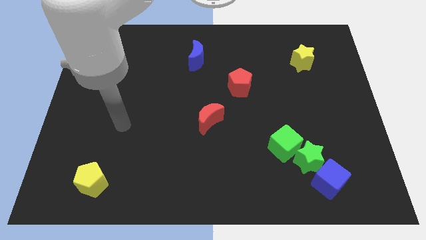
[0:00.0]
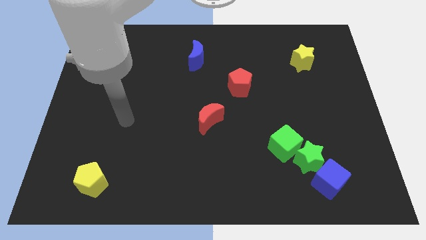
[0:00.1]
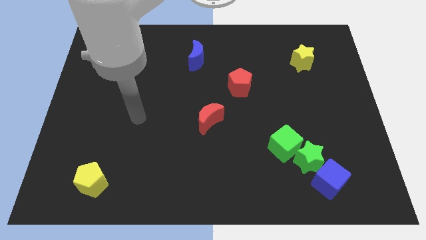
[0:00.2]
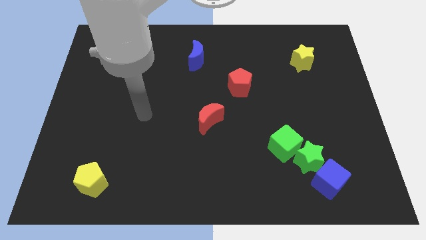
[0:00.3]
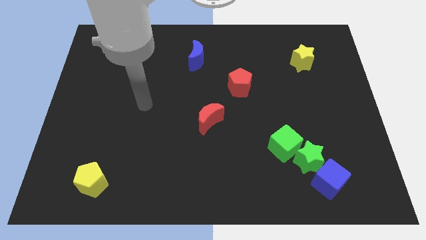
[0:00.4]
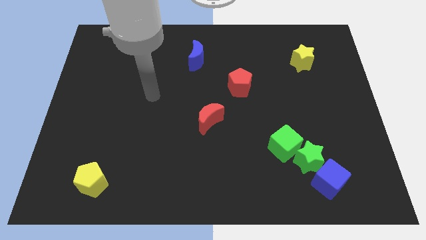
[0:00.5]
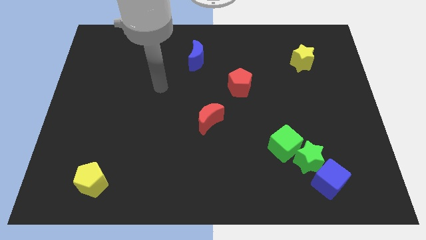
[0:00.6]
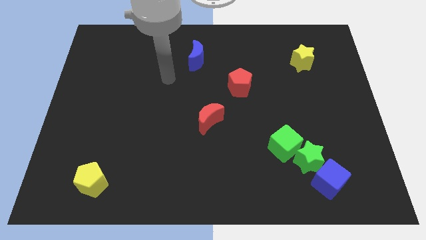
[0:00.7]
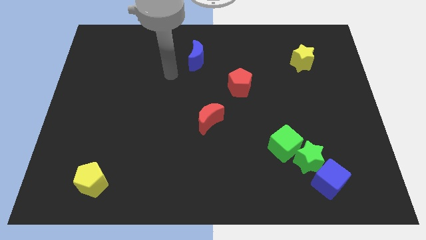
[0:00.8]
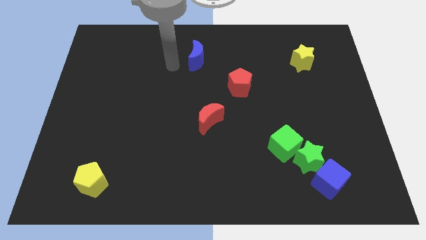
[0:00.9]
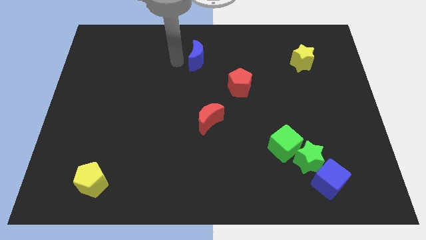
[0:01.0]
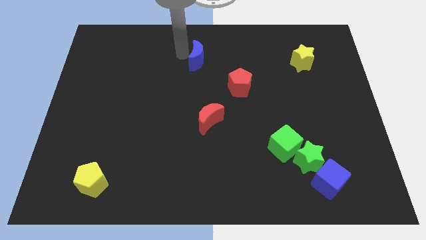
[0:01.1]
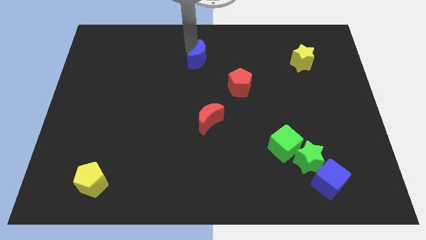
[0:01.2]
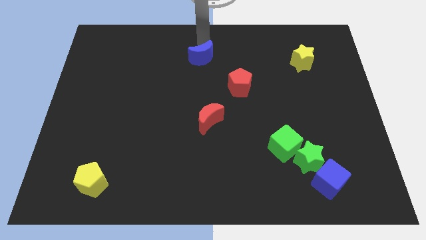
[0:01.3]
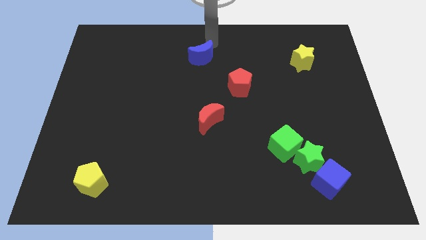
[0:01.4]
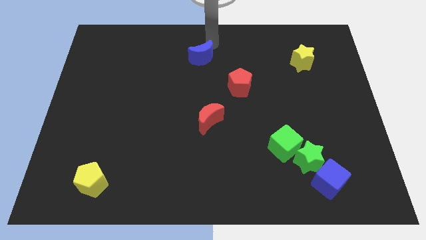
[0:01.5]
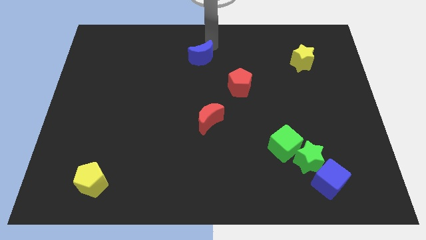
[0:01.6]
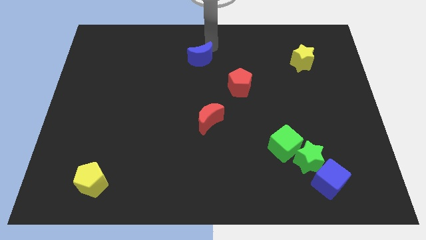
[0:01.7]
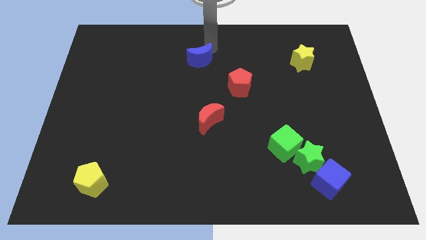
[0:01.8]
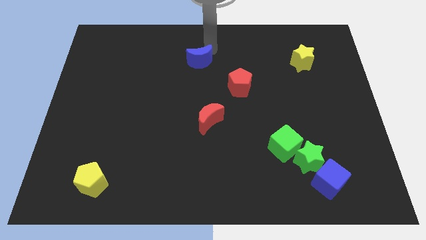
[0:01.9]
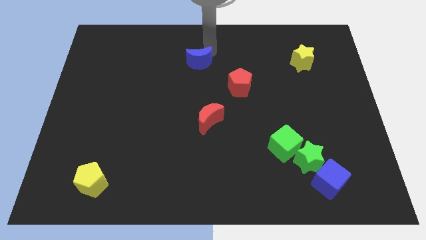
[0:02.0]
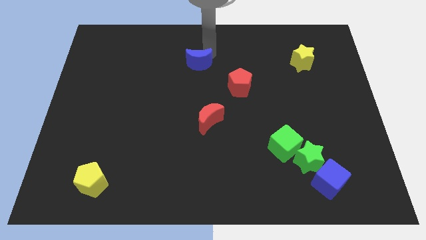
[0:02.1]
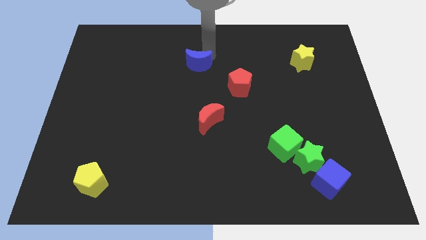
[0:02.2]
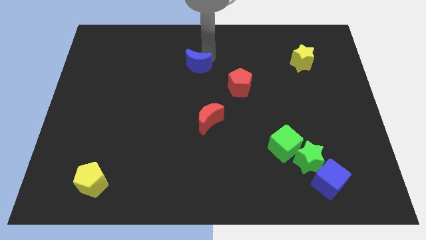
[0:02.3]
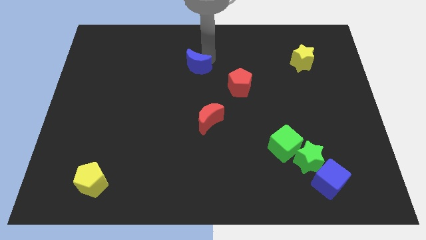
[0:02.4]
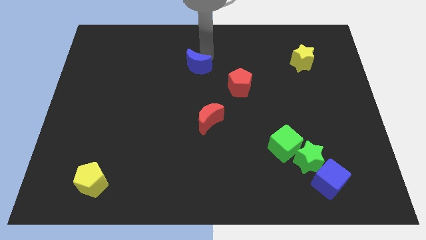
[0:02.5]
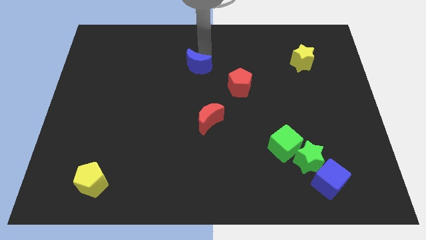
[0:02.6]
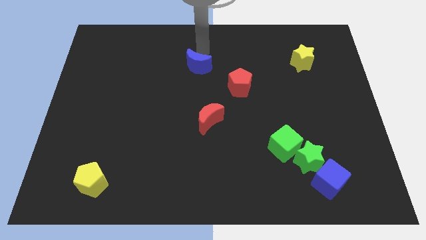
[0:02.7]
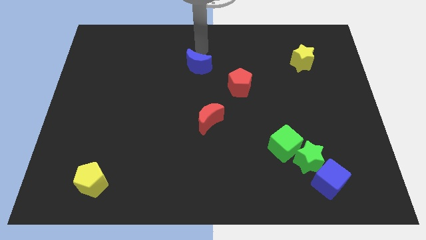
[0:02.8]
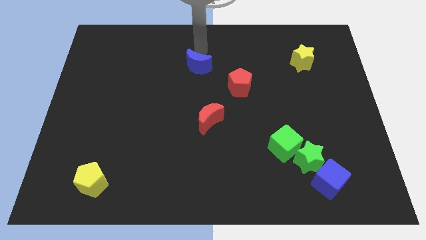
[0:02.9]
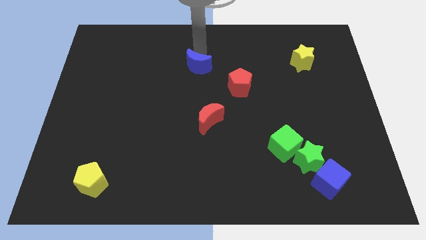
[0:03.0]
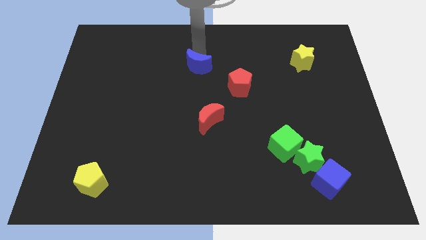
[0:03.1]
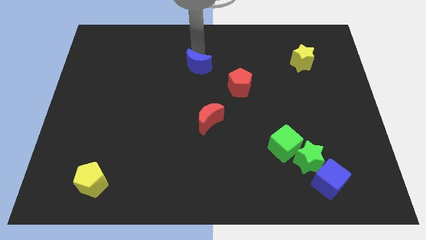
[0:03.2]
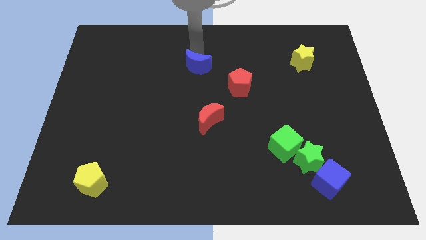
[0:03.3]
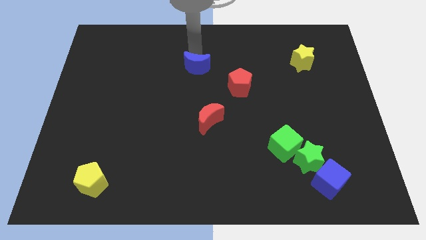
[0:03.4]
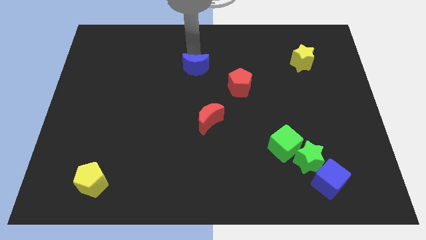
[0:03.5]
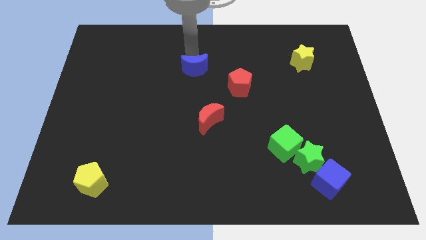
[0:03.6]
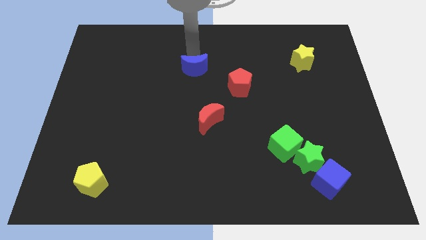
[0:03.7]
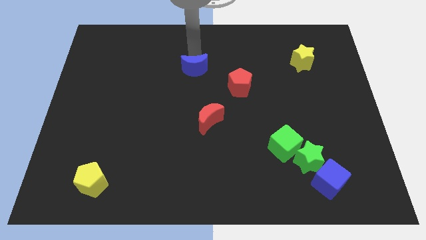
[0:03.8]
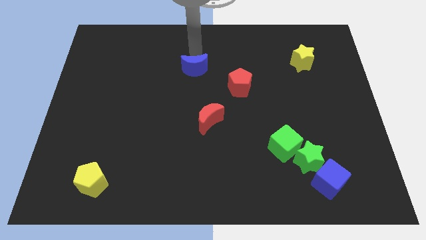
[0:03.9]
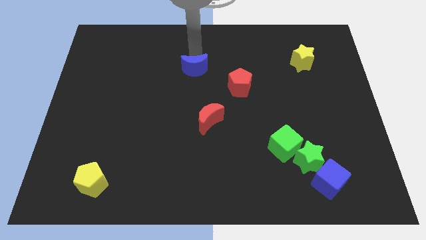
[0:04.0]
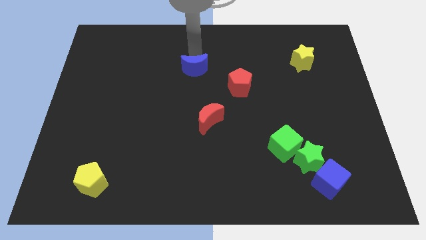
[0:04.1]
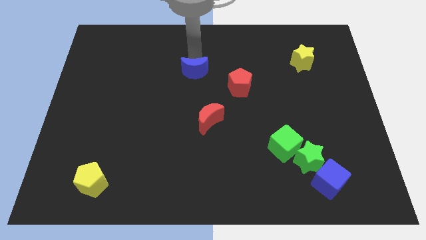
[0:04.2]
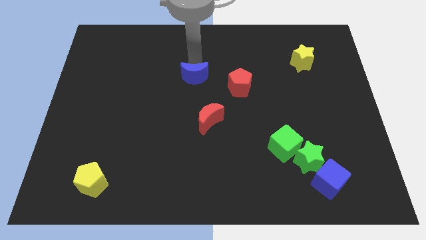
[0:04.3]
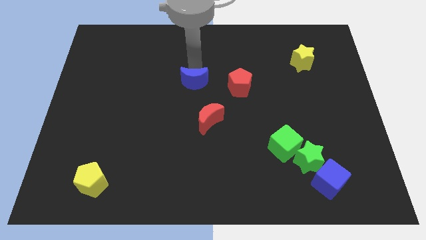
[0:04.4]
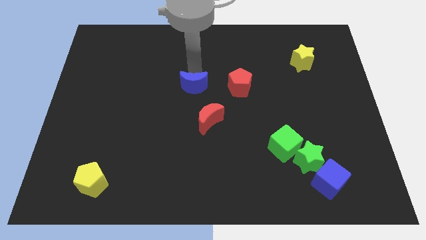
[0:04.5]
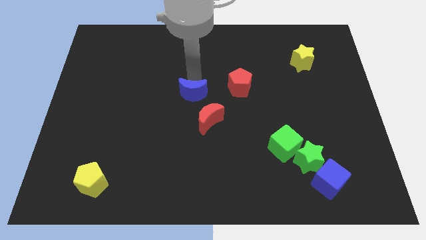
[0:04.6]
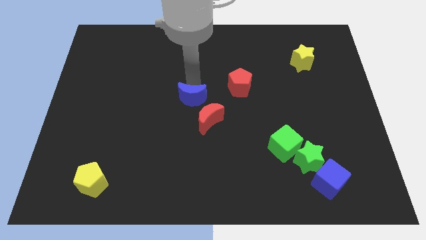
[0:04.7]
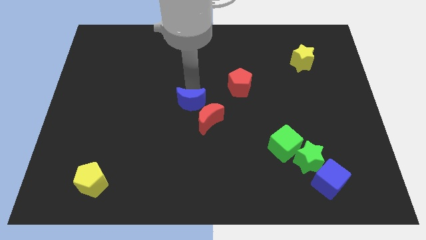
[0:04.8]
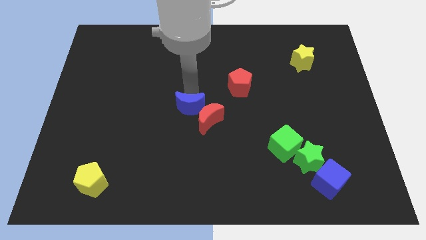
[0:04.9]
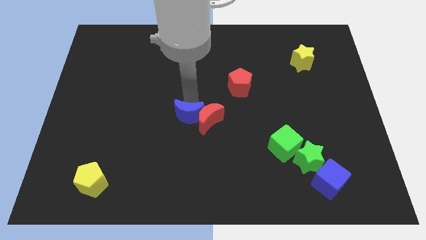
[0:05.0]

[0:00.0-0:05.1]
put the blue moon to the bottom left side of the red moon

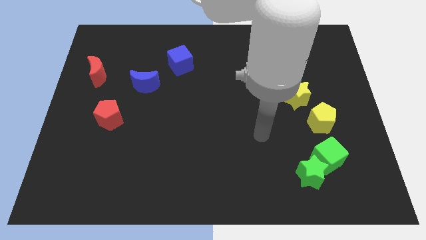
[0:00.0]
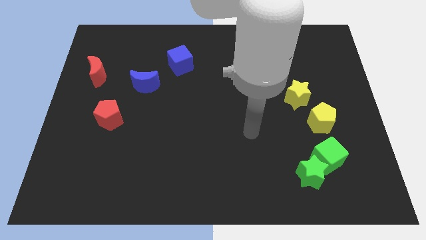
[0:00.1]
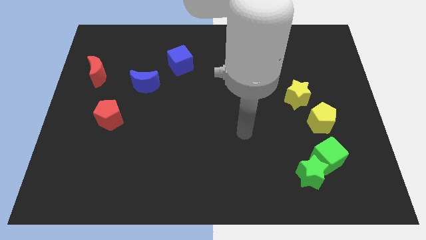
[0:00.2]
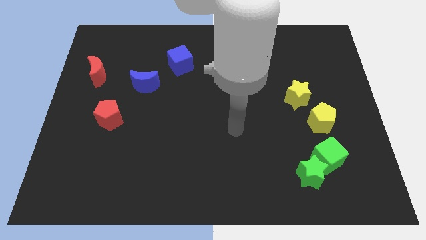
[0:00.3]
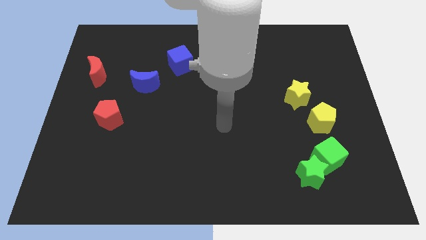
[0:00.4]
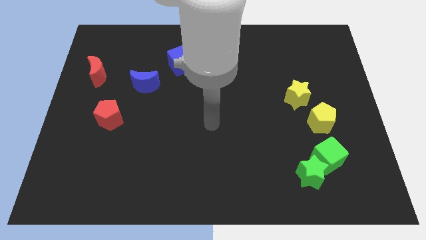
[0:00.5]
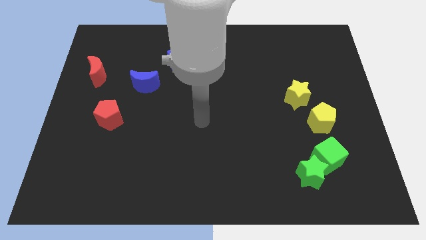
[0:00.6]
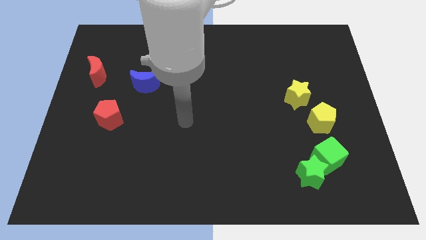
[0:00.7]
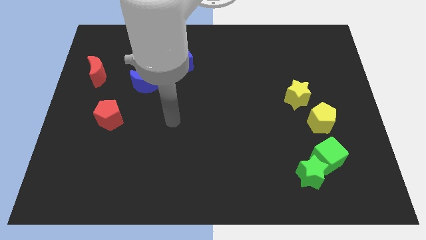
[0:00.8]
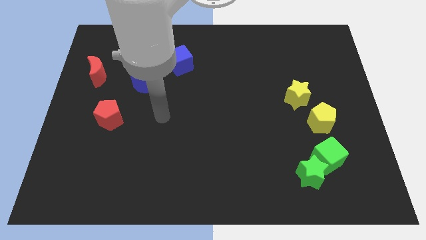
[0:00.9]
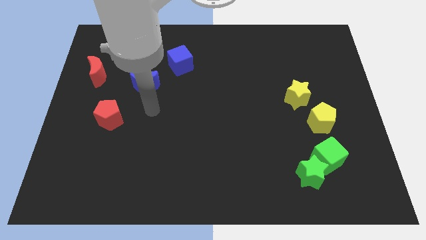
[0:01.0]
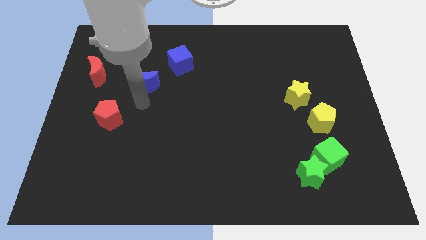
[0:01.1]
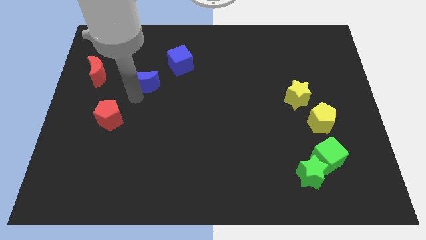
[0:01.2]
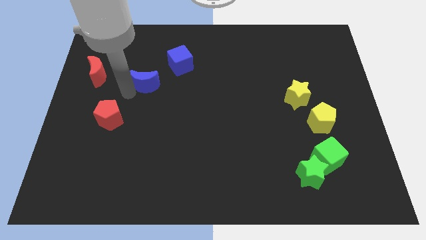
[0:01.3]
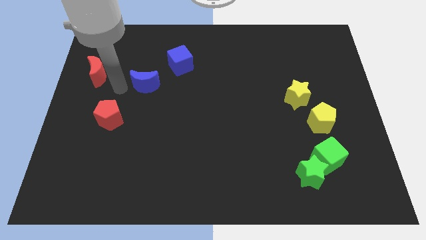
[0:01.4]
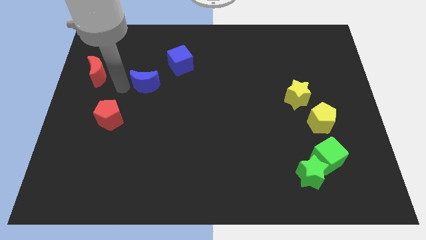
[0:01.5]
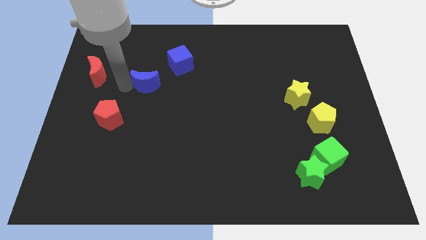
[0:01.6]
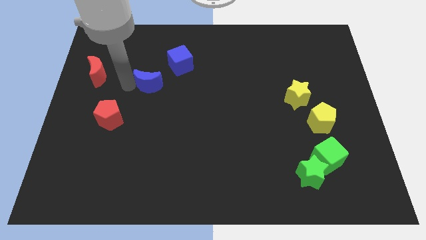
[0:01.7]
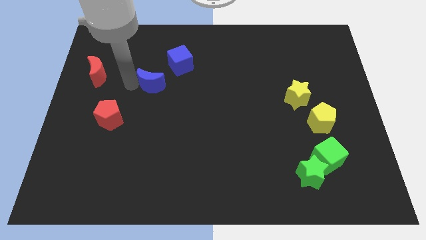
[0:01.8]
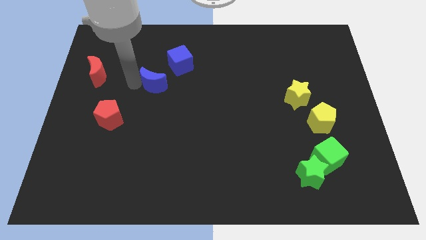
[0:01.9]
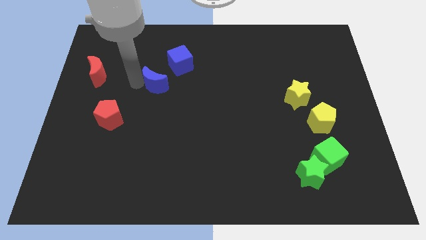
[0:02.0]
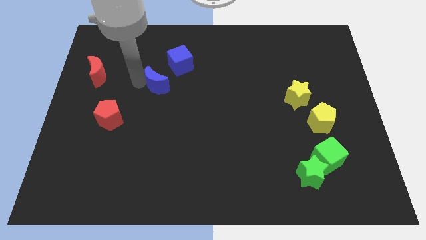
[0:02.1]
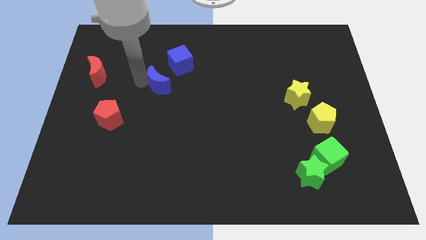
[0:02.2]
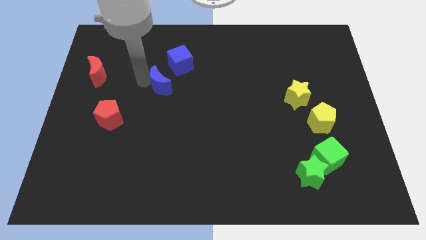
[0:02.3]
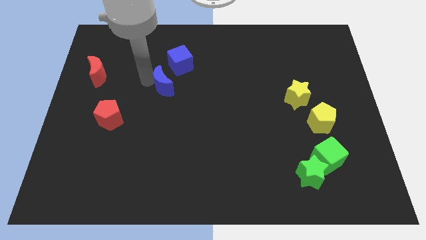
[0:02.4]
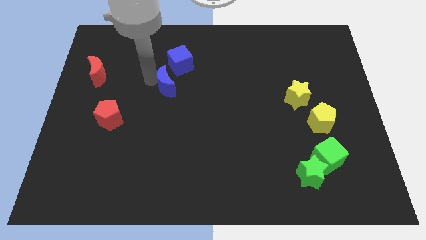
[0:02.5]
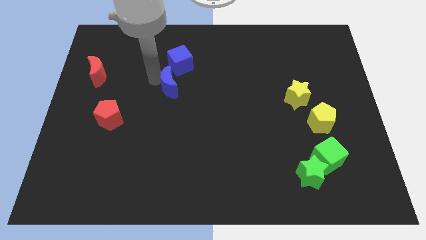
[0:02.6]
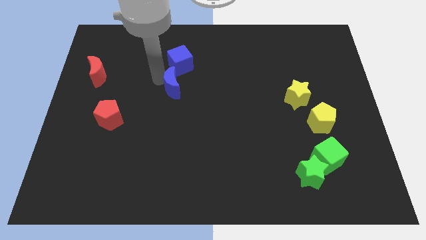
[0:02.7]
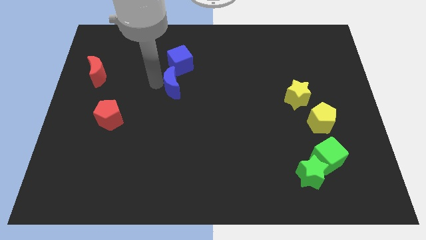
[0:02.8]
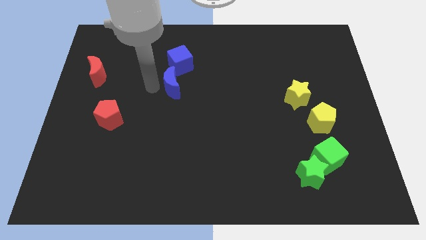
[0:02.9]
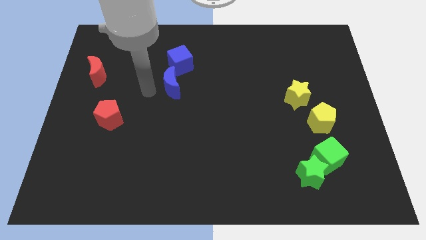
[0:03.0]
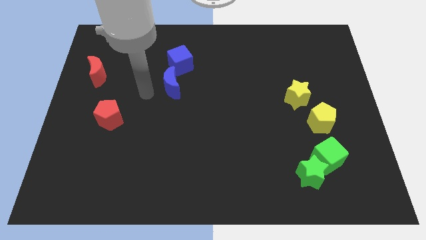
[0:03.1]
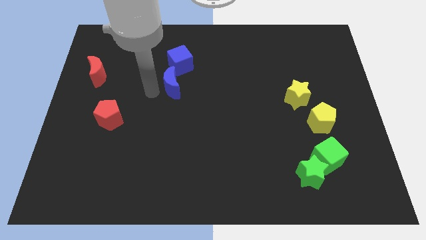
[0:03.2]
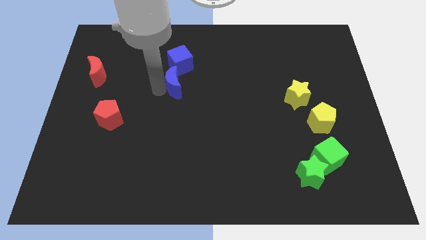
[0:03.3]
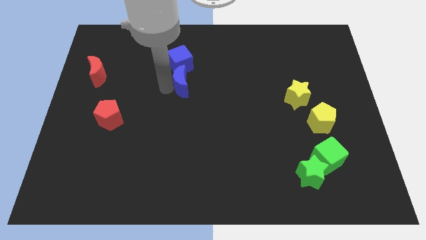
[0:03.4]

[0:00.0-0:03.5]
put the blue moon to the bottom right side of the blue cube
